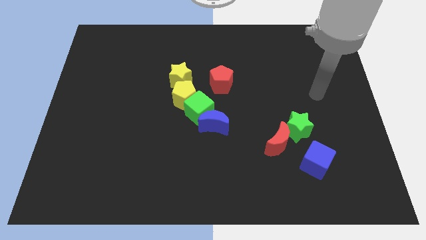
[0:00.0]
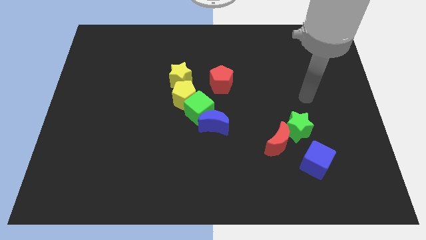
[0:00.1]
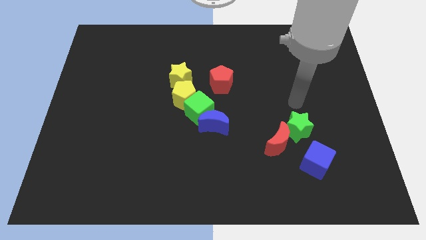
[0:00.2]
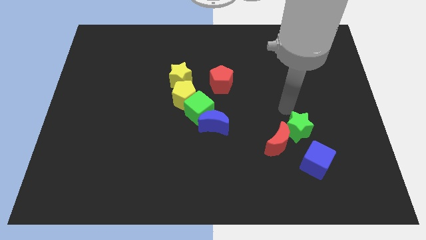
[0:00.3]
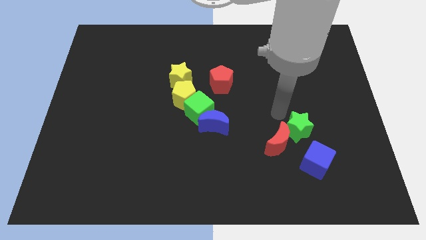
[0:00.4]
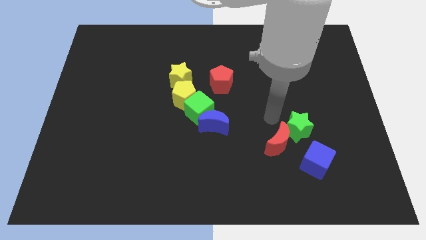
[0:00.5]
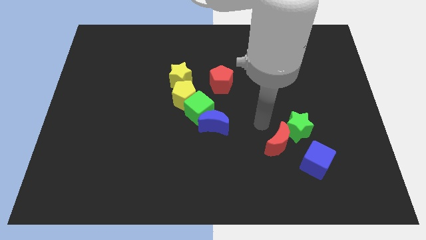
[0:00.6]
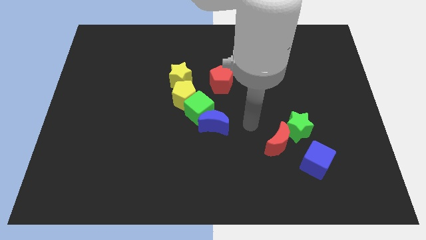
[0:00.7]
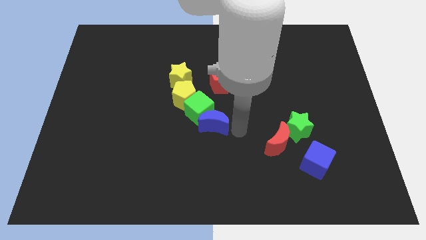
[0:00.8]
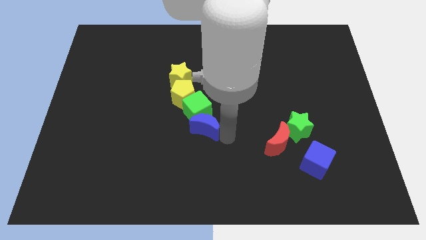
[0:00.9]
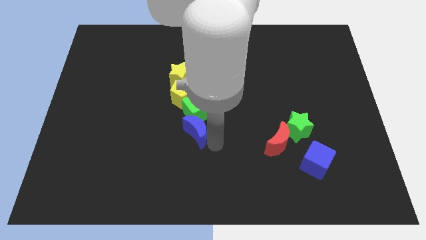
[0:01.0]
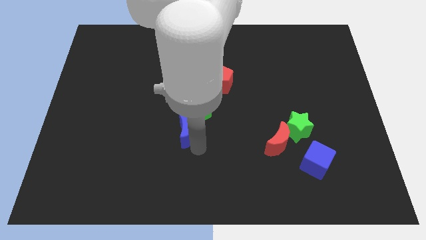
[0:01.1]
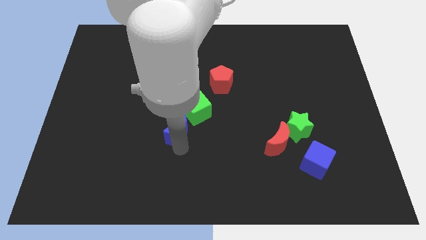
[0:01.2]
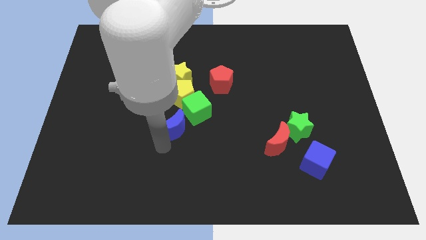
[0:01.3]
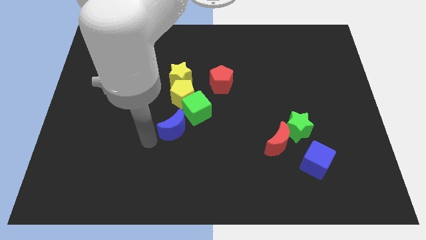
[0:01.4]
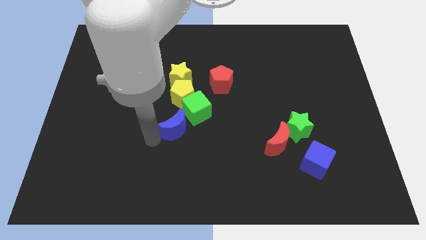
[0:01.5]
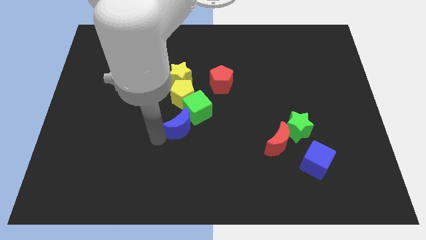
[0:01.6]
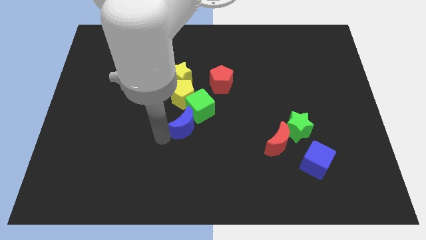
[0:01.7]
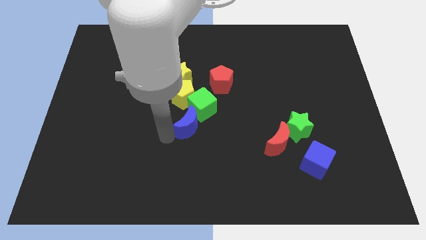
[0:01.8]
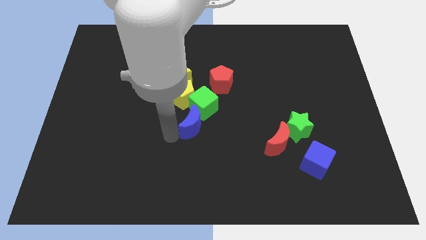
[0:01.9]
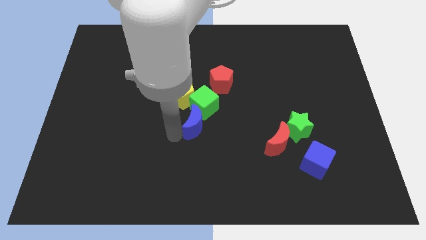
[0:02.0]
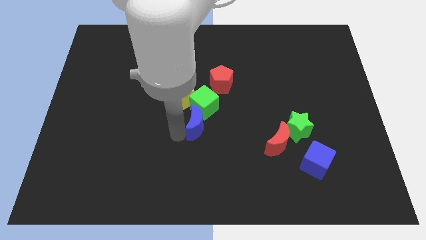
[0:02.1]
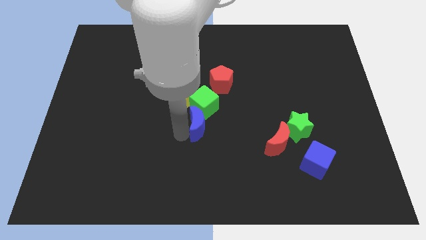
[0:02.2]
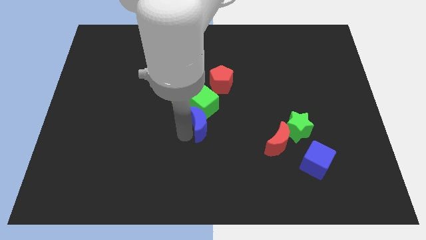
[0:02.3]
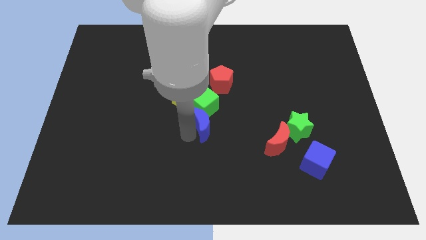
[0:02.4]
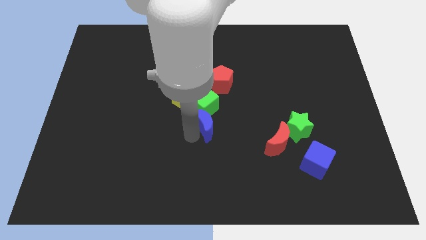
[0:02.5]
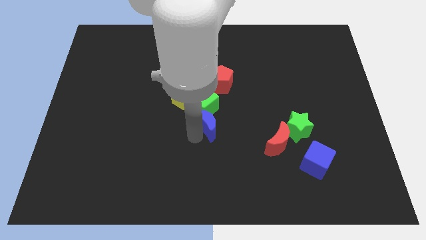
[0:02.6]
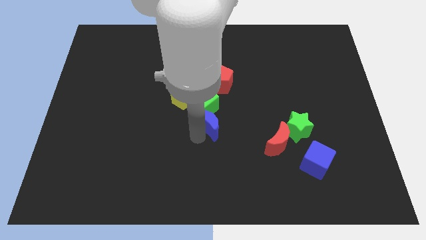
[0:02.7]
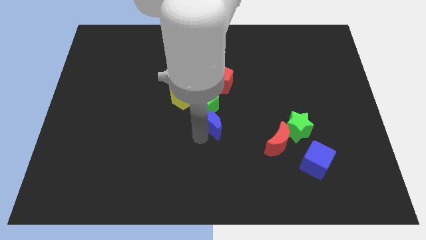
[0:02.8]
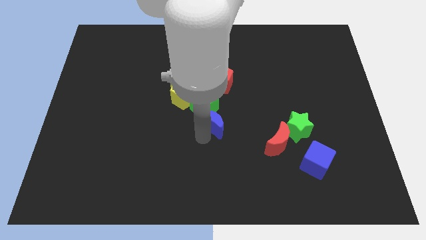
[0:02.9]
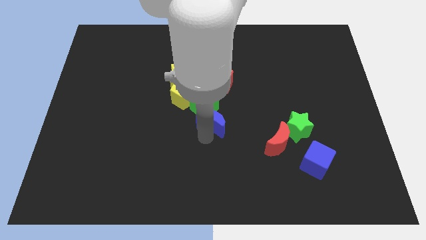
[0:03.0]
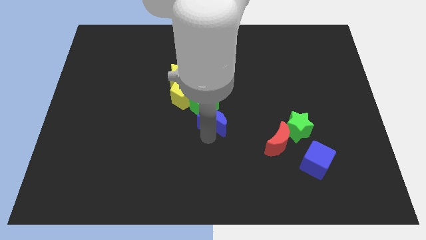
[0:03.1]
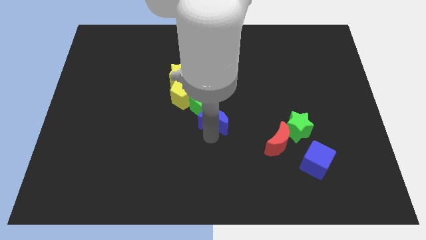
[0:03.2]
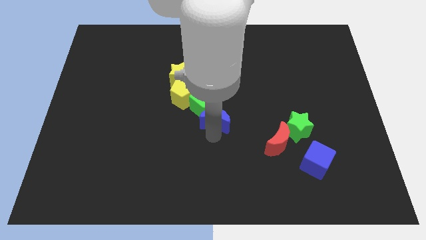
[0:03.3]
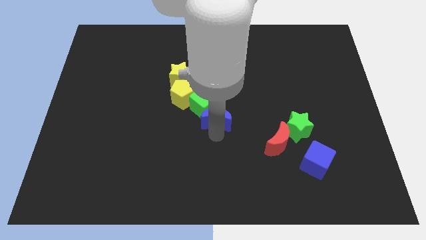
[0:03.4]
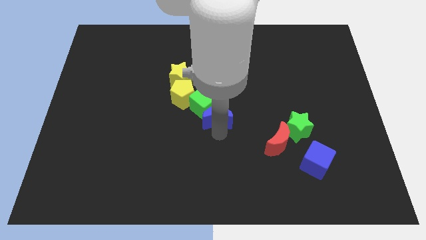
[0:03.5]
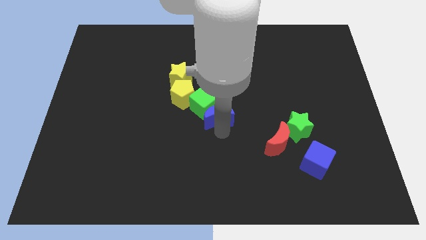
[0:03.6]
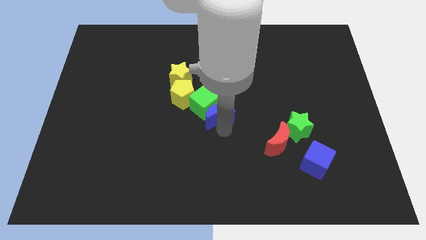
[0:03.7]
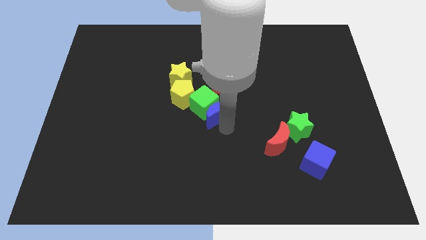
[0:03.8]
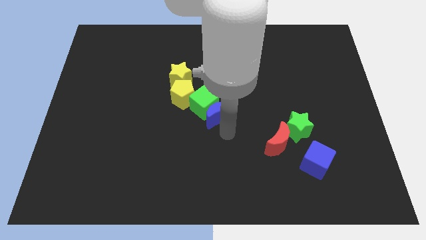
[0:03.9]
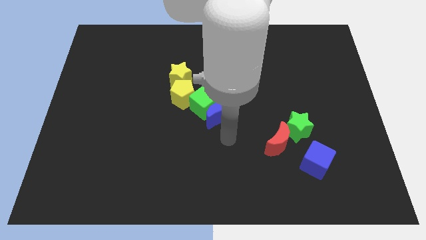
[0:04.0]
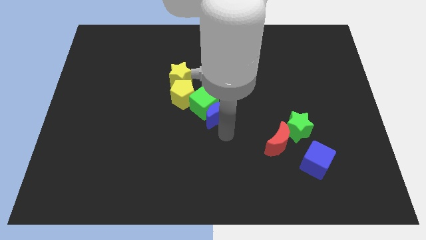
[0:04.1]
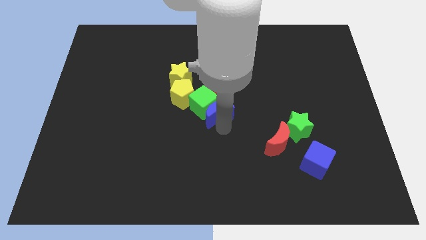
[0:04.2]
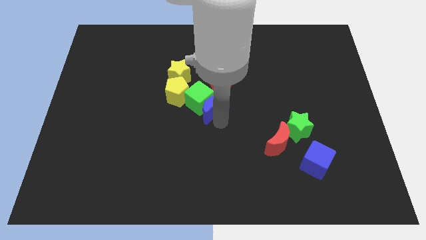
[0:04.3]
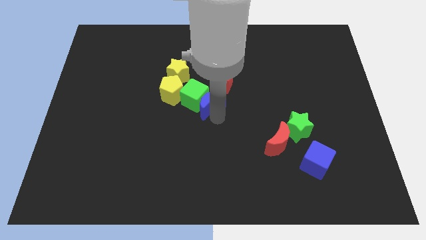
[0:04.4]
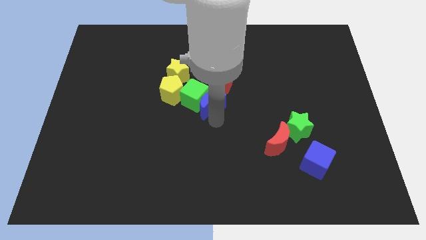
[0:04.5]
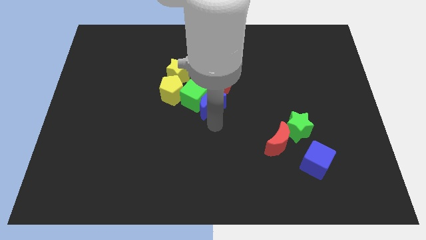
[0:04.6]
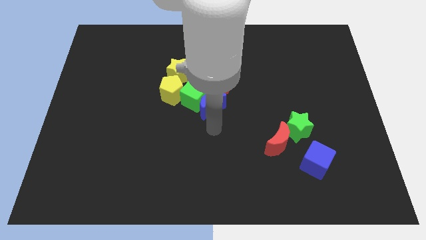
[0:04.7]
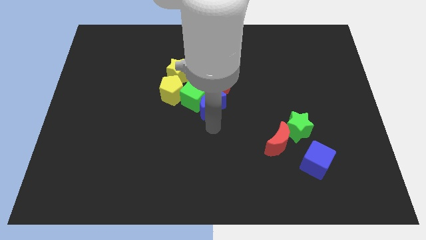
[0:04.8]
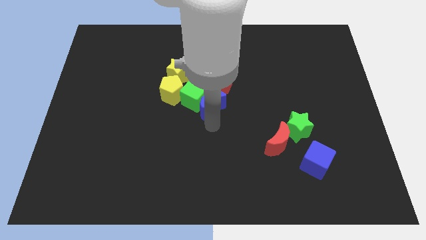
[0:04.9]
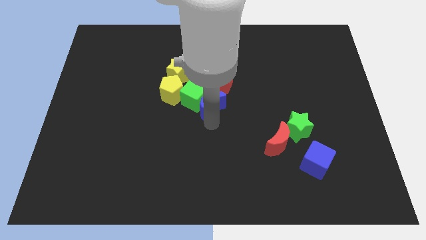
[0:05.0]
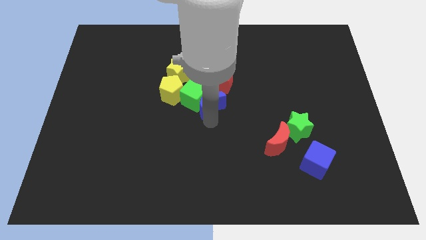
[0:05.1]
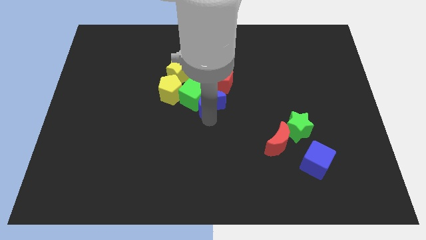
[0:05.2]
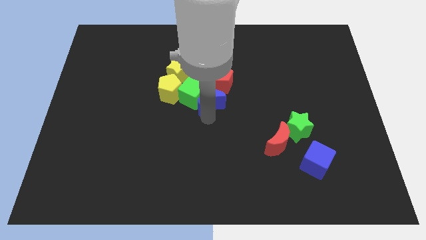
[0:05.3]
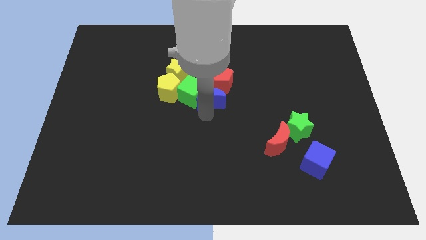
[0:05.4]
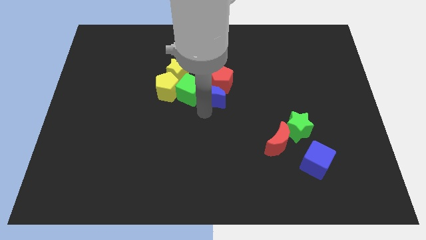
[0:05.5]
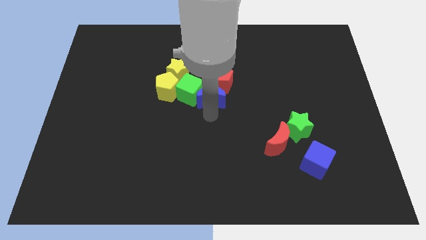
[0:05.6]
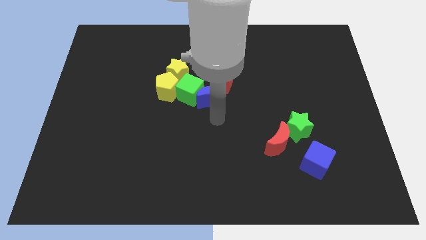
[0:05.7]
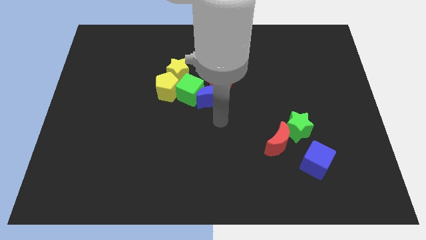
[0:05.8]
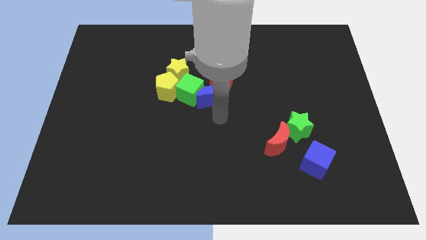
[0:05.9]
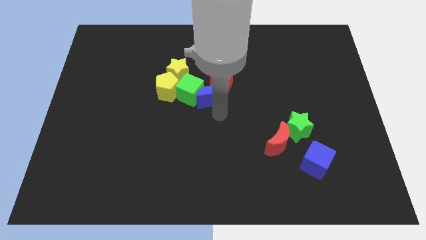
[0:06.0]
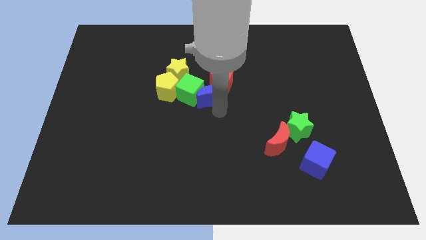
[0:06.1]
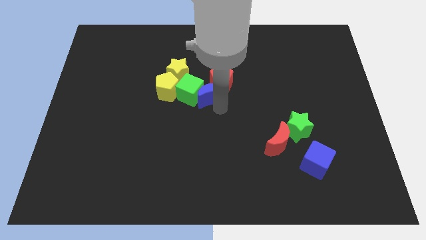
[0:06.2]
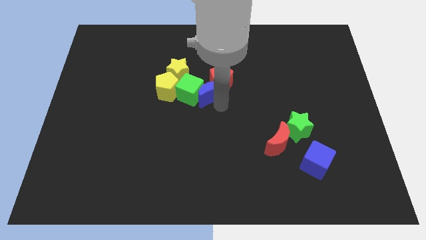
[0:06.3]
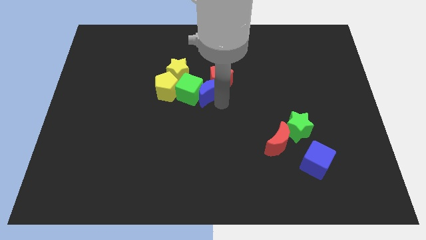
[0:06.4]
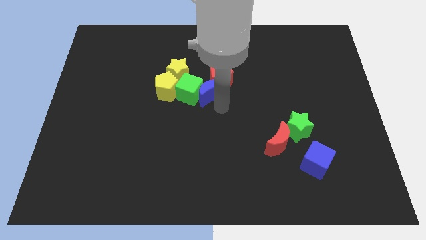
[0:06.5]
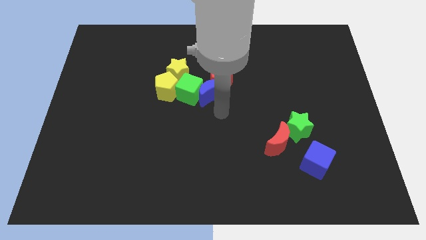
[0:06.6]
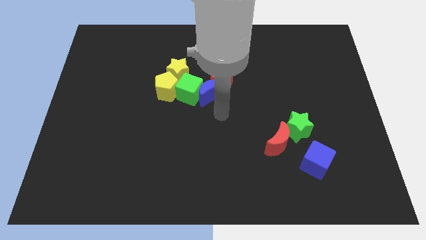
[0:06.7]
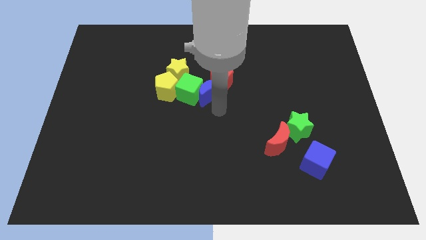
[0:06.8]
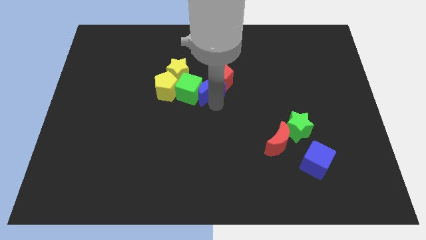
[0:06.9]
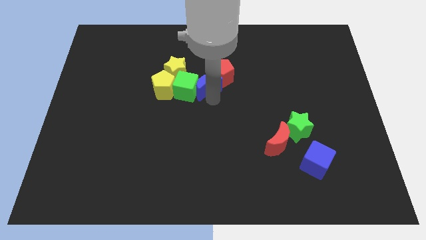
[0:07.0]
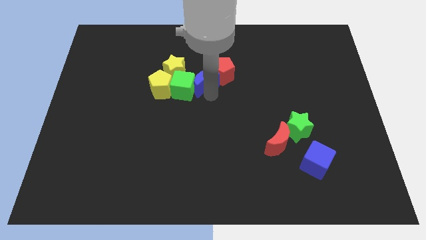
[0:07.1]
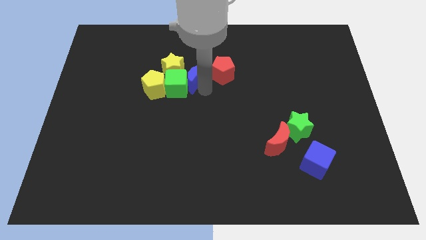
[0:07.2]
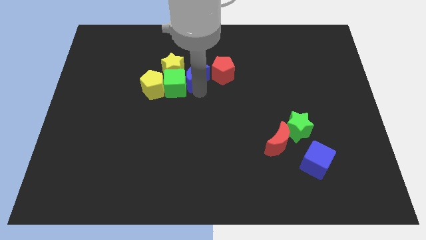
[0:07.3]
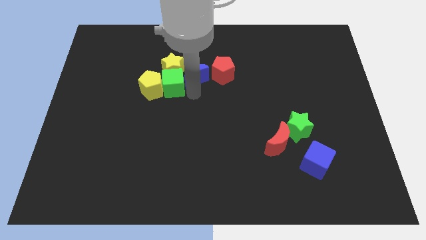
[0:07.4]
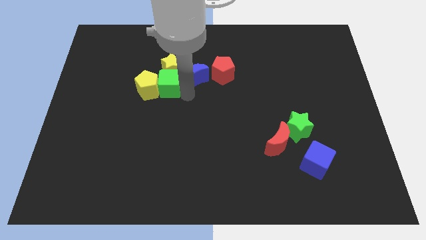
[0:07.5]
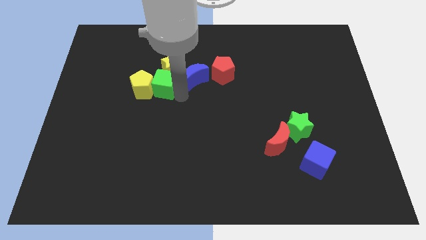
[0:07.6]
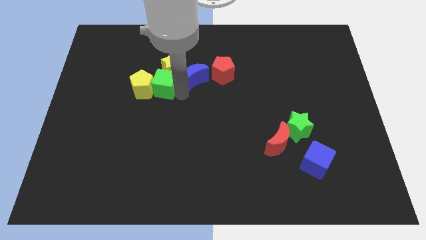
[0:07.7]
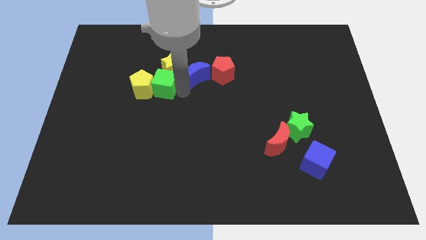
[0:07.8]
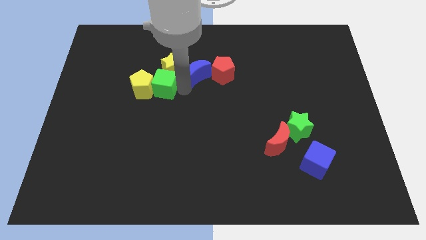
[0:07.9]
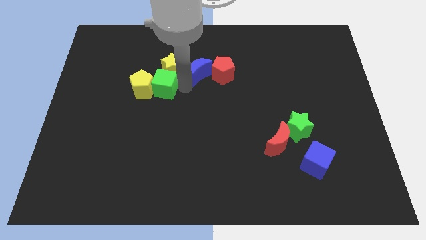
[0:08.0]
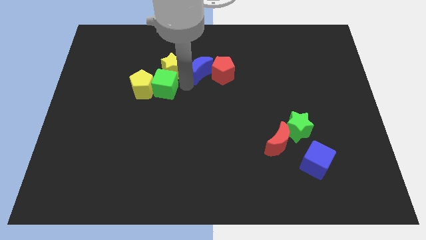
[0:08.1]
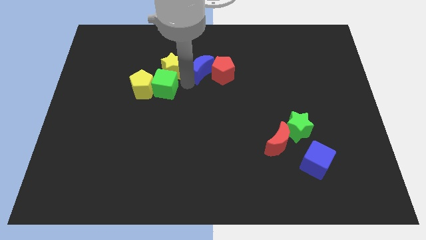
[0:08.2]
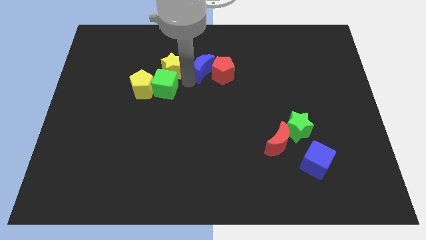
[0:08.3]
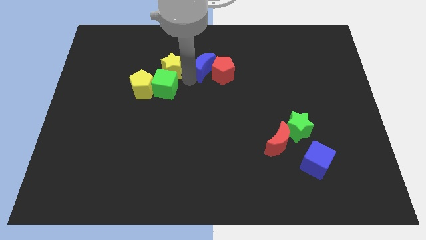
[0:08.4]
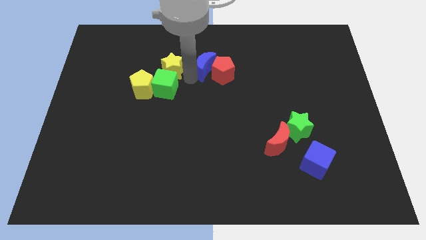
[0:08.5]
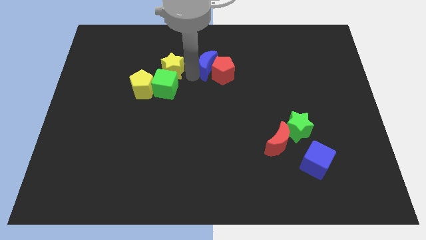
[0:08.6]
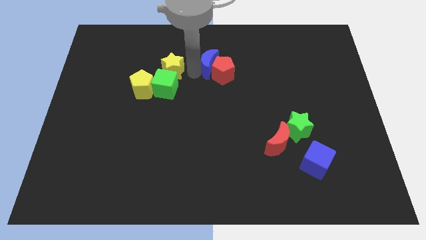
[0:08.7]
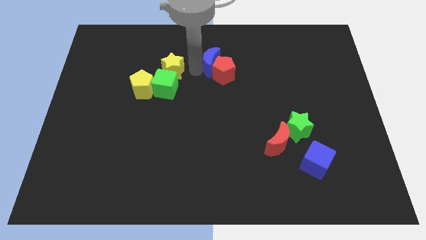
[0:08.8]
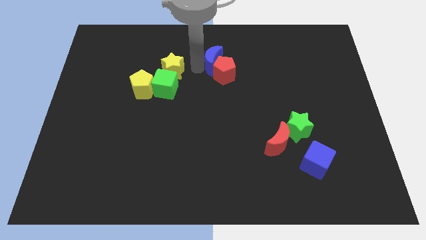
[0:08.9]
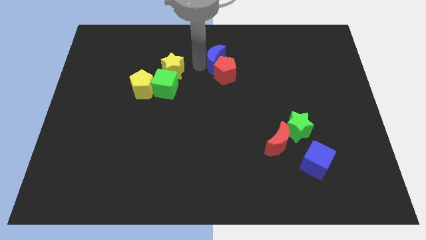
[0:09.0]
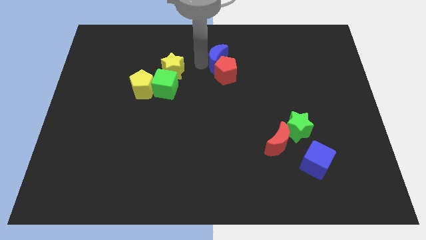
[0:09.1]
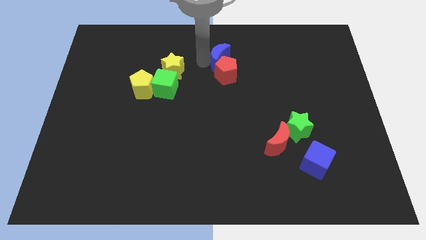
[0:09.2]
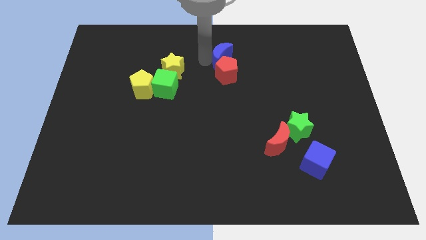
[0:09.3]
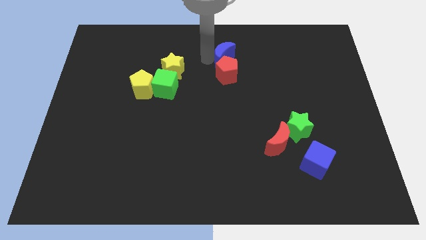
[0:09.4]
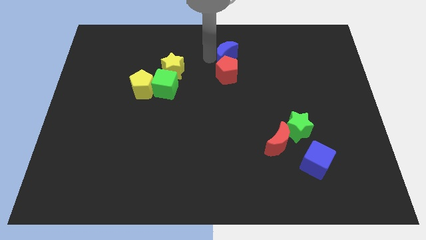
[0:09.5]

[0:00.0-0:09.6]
slide the blue moon to the top
